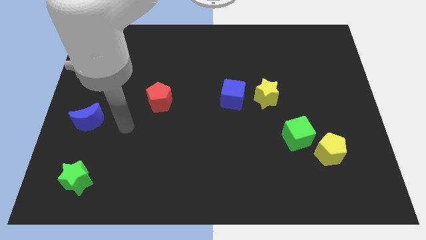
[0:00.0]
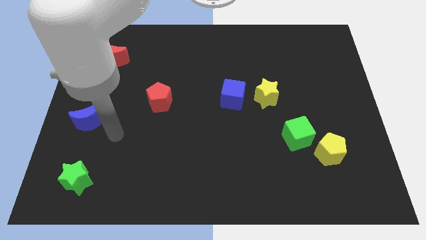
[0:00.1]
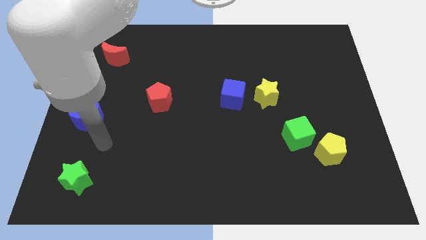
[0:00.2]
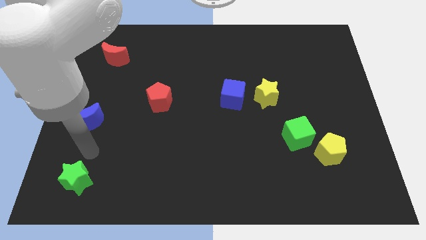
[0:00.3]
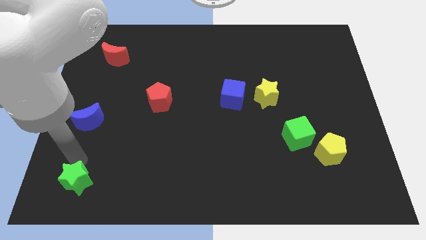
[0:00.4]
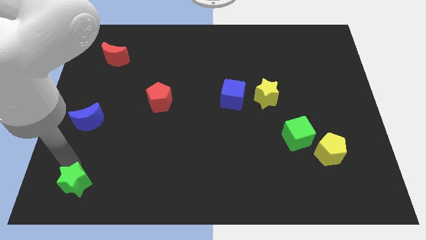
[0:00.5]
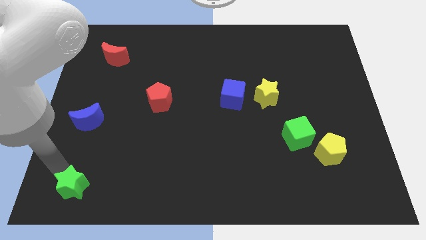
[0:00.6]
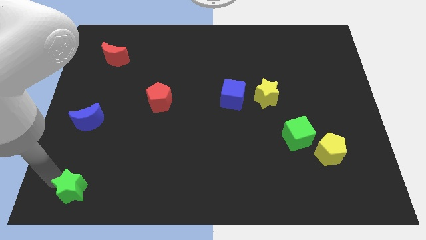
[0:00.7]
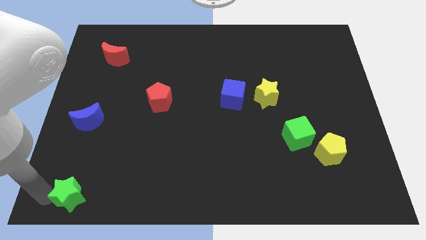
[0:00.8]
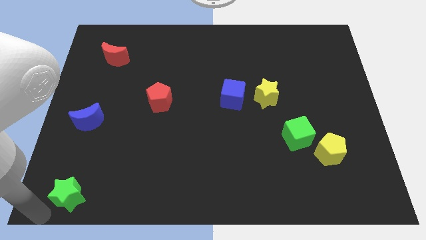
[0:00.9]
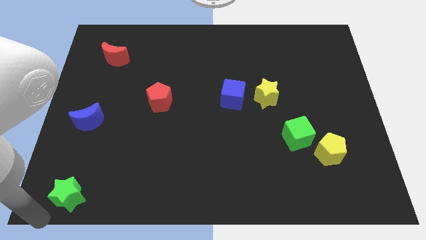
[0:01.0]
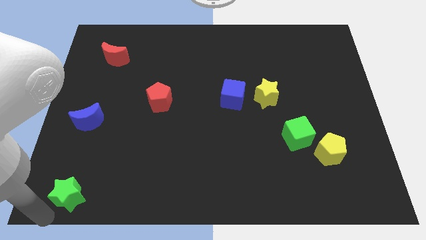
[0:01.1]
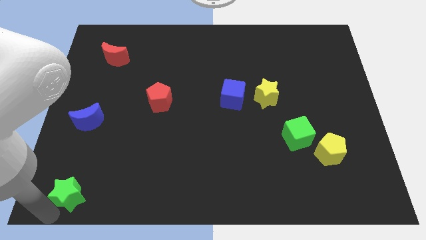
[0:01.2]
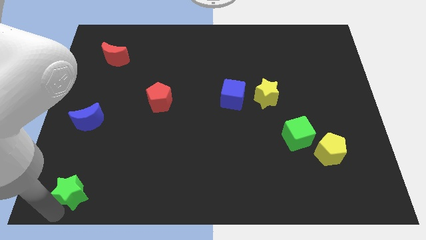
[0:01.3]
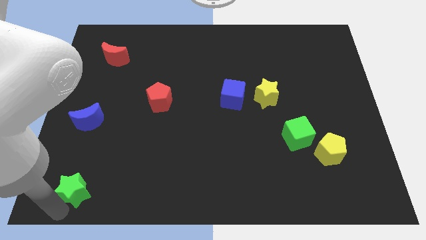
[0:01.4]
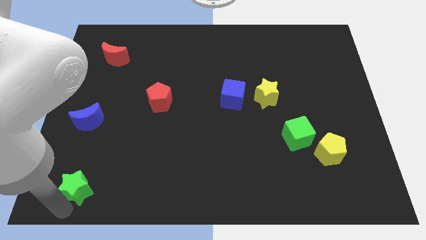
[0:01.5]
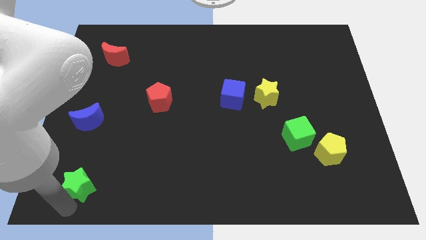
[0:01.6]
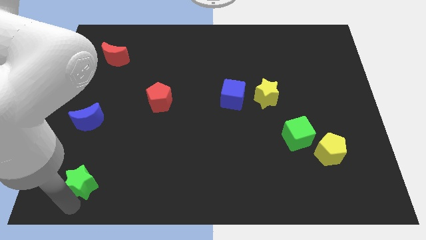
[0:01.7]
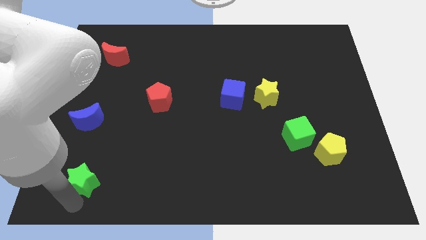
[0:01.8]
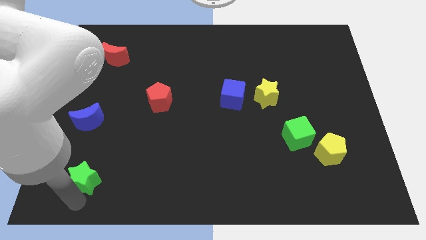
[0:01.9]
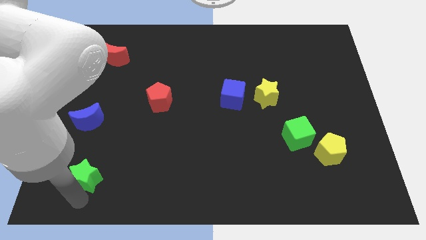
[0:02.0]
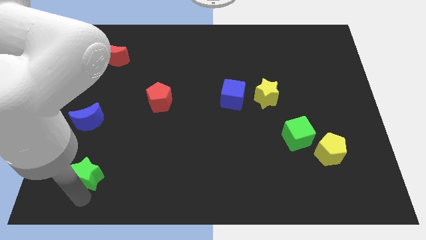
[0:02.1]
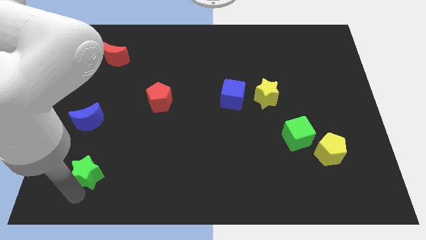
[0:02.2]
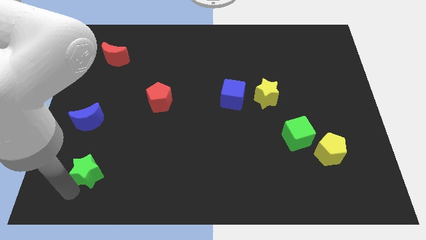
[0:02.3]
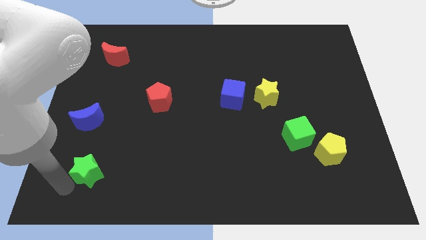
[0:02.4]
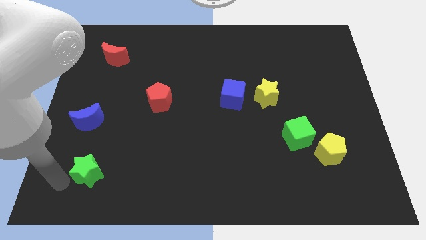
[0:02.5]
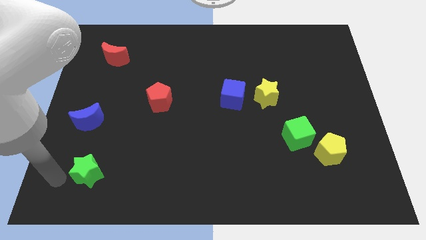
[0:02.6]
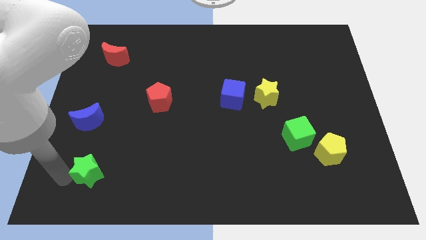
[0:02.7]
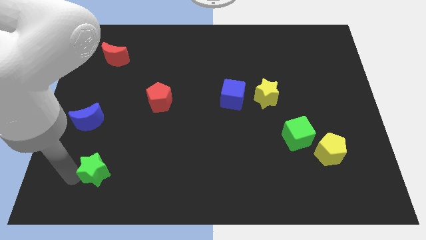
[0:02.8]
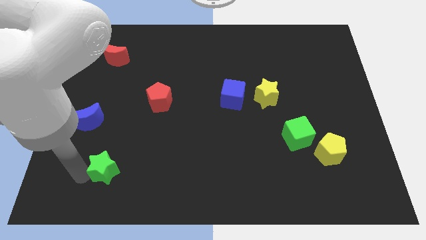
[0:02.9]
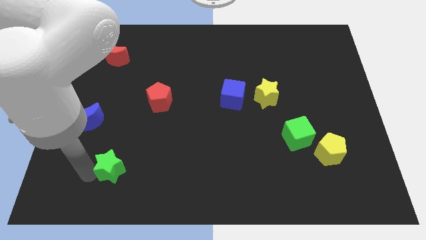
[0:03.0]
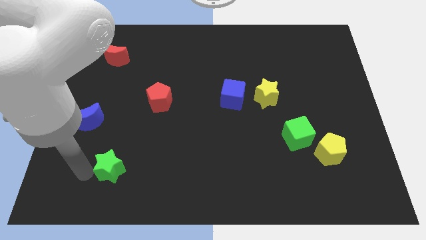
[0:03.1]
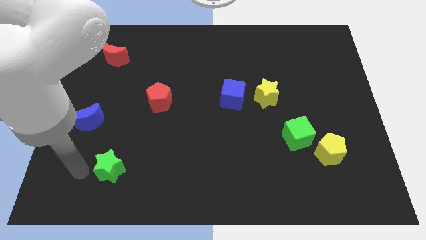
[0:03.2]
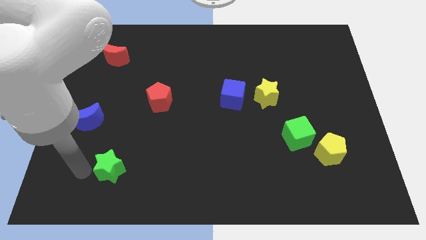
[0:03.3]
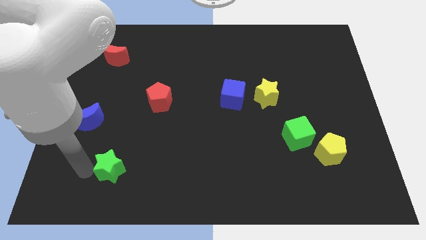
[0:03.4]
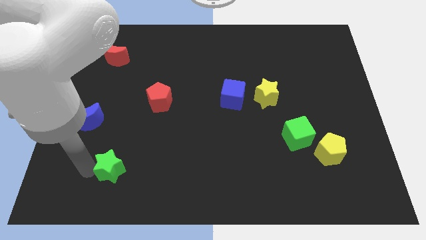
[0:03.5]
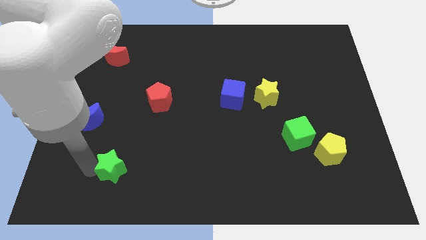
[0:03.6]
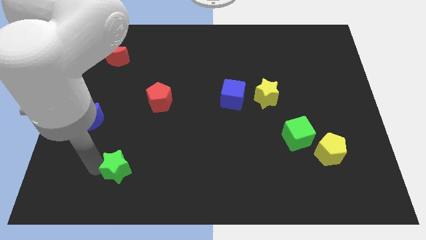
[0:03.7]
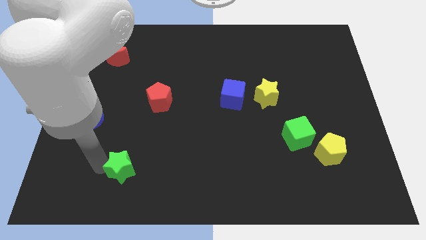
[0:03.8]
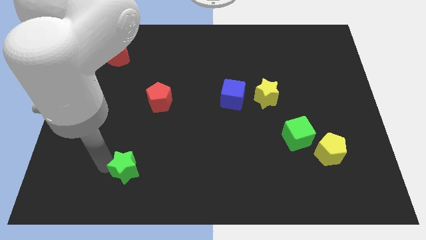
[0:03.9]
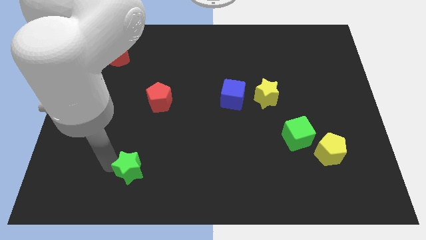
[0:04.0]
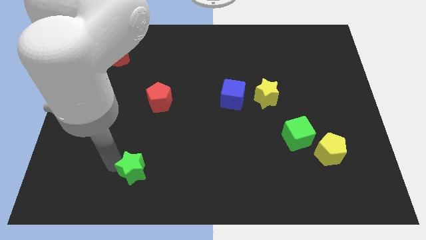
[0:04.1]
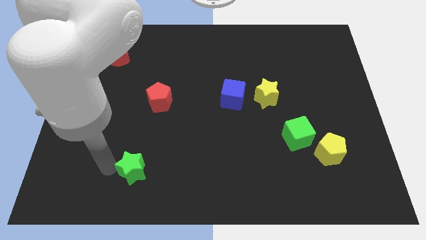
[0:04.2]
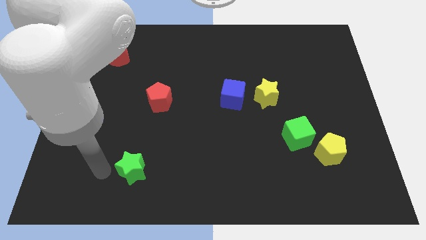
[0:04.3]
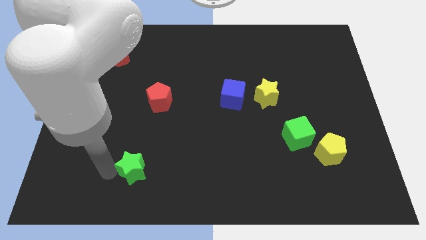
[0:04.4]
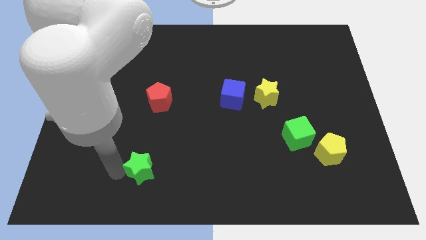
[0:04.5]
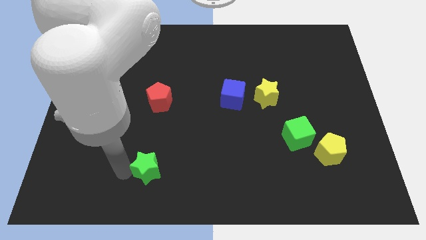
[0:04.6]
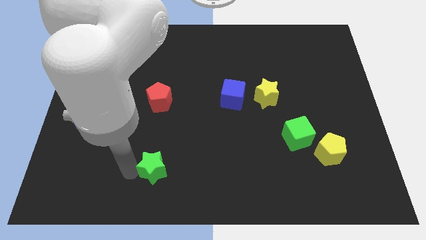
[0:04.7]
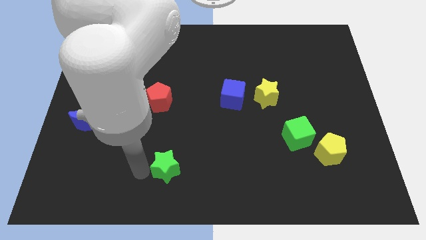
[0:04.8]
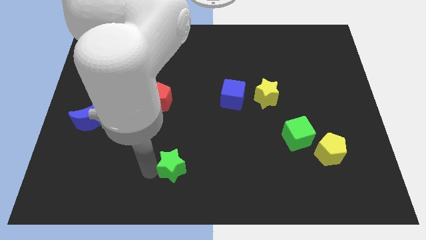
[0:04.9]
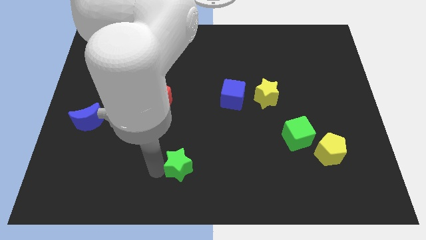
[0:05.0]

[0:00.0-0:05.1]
push the green star to the right

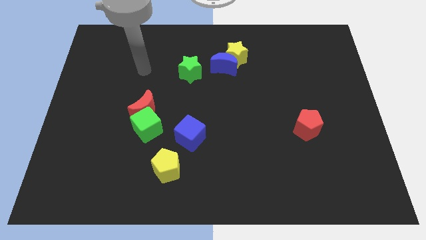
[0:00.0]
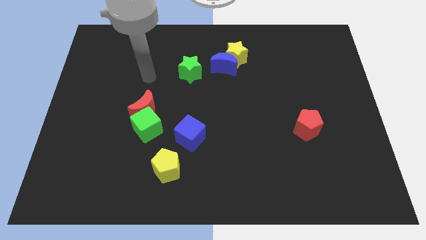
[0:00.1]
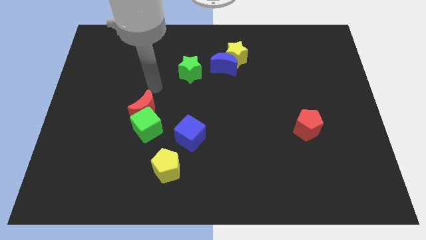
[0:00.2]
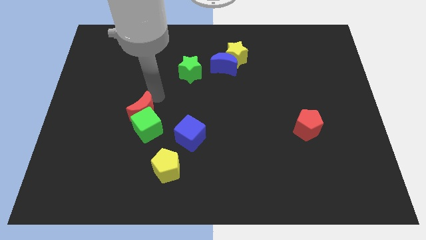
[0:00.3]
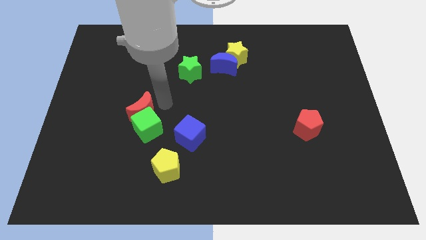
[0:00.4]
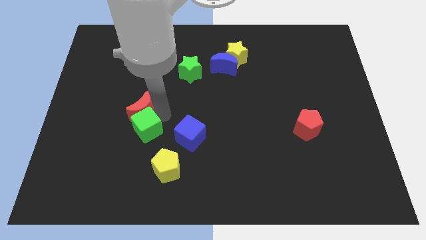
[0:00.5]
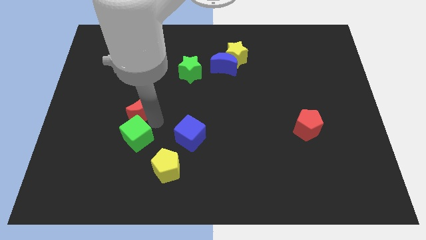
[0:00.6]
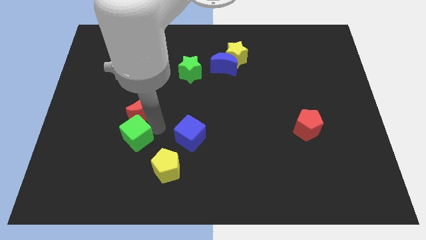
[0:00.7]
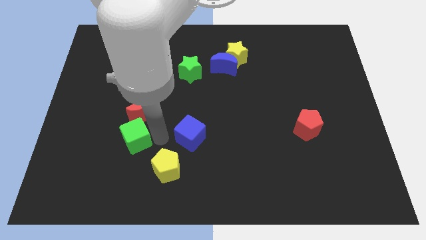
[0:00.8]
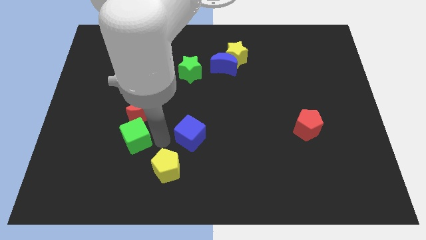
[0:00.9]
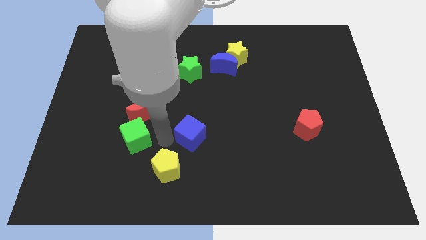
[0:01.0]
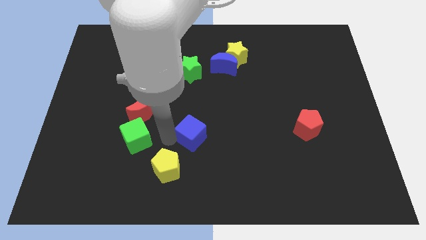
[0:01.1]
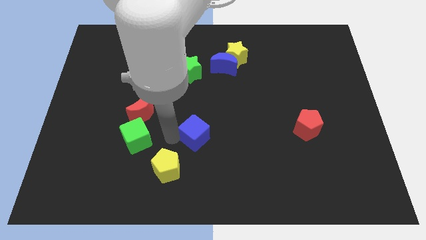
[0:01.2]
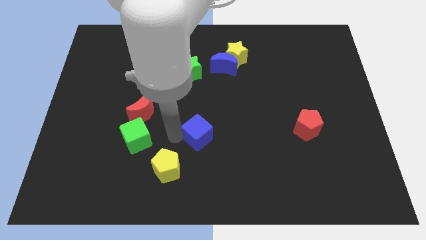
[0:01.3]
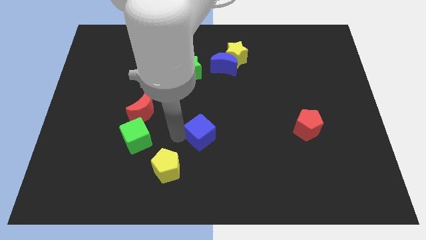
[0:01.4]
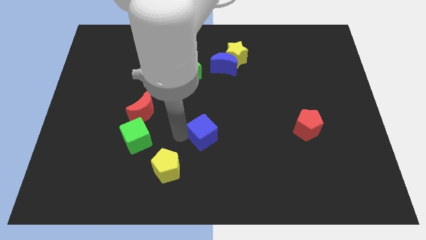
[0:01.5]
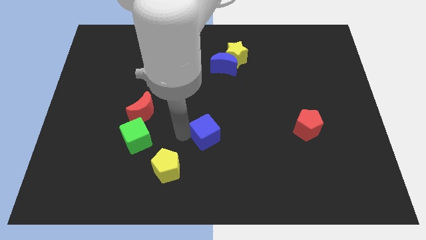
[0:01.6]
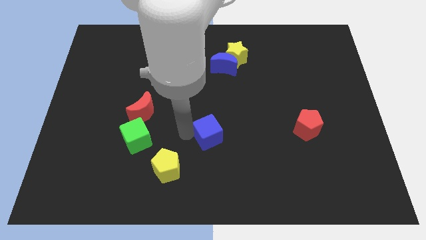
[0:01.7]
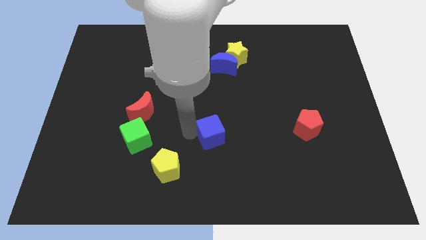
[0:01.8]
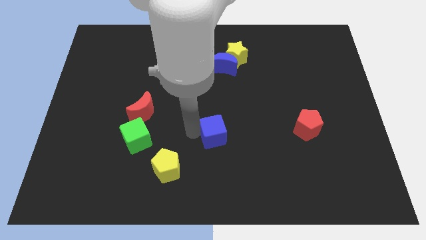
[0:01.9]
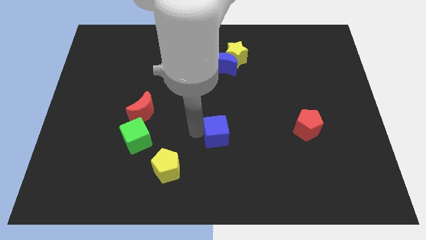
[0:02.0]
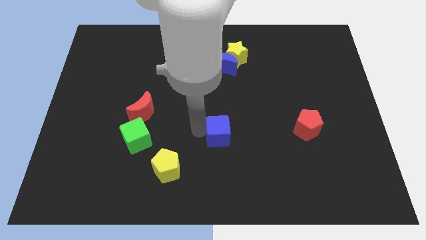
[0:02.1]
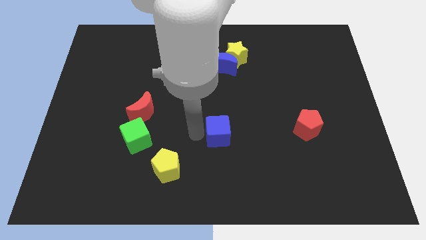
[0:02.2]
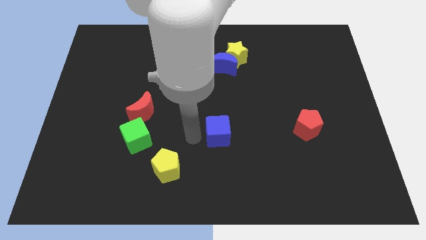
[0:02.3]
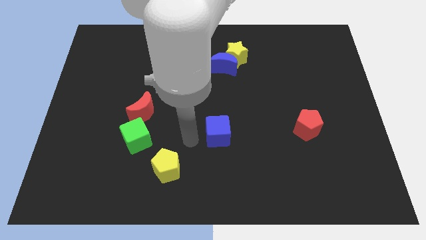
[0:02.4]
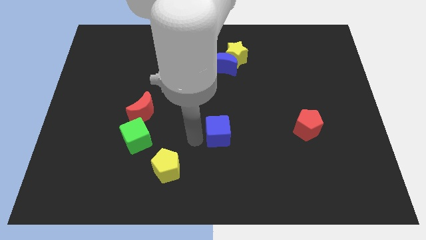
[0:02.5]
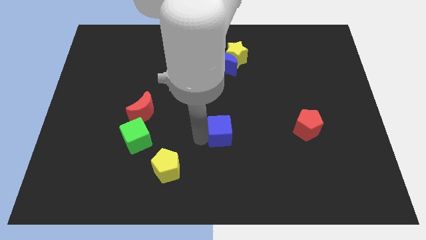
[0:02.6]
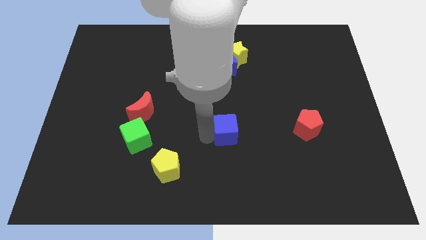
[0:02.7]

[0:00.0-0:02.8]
move the blue cube a little to the right

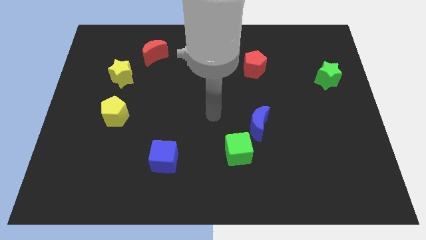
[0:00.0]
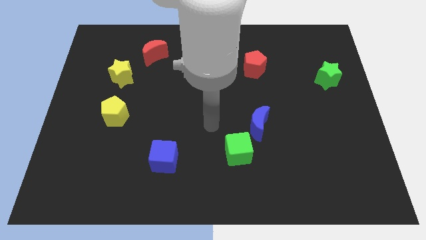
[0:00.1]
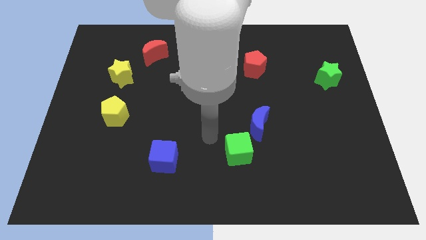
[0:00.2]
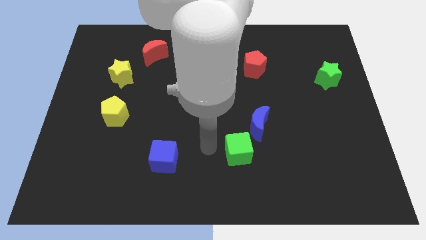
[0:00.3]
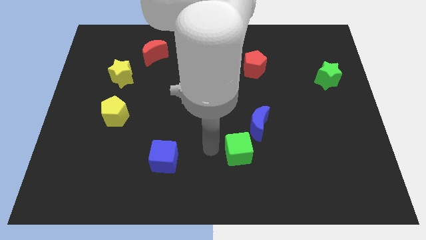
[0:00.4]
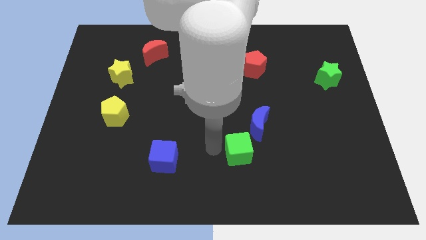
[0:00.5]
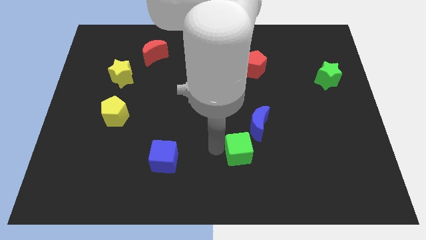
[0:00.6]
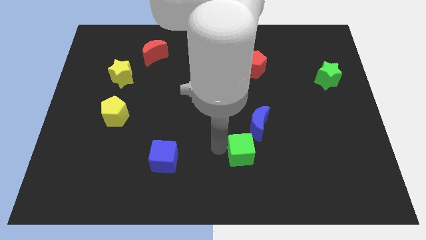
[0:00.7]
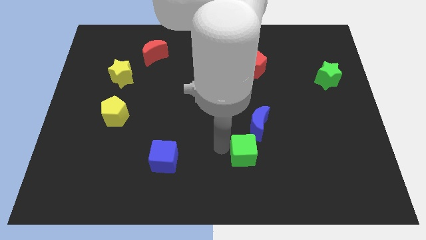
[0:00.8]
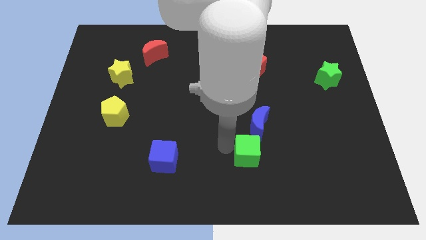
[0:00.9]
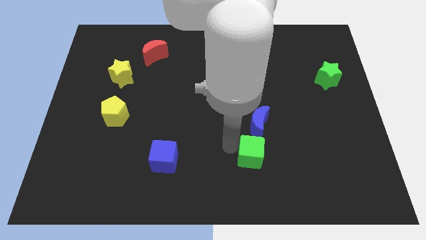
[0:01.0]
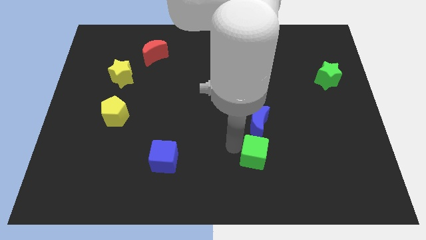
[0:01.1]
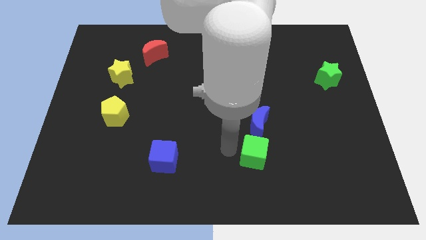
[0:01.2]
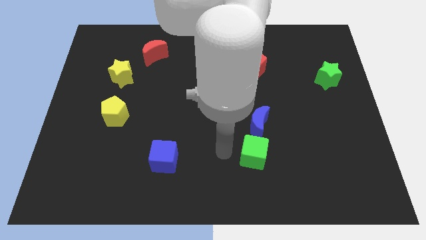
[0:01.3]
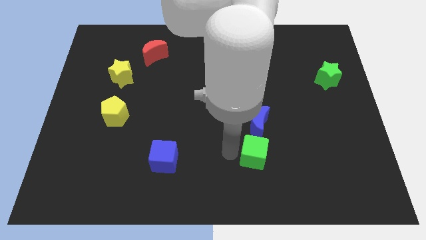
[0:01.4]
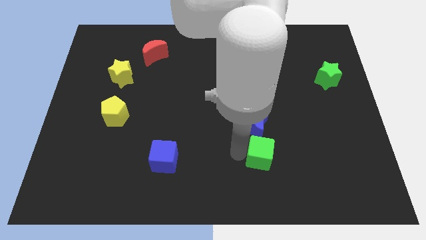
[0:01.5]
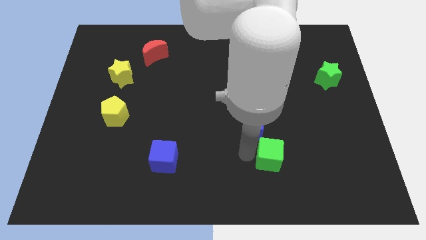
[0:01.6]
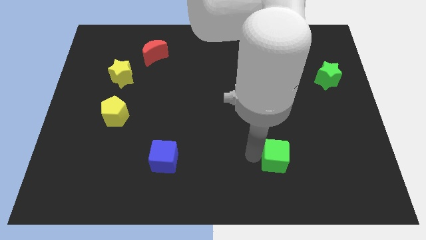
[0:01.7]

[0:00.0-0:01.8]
move the green cube a little to the right
